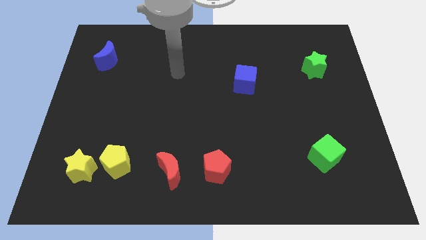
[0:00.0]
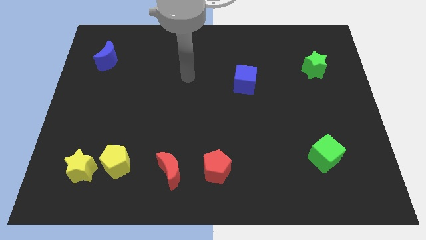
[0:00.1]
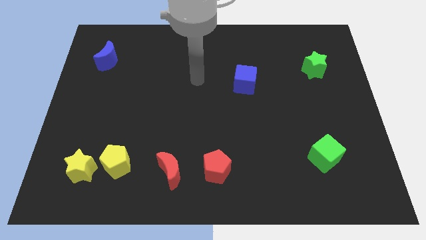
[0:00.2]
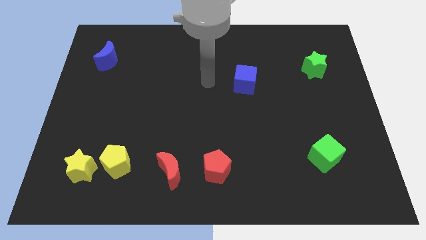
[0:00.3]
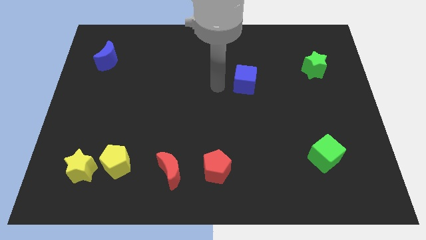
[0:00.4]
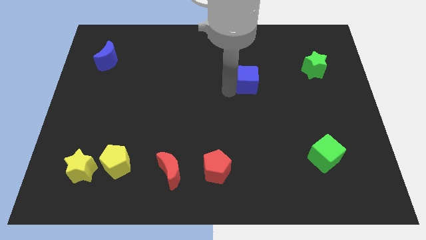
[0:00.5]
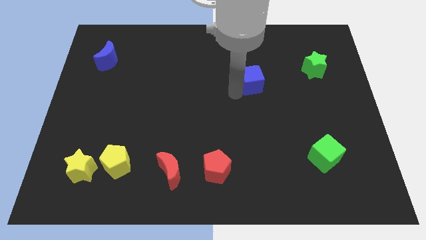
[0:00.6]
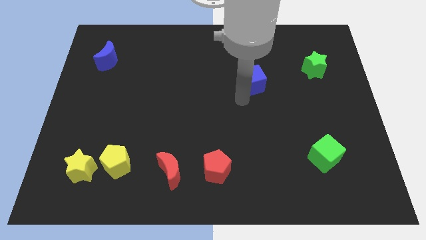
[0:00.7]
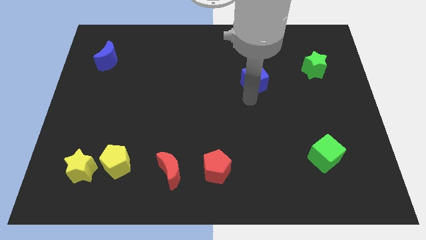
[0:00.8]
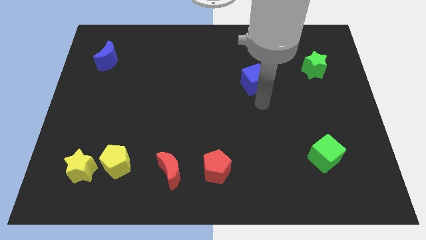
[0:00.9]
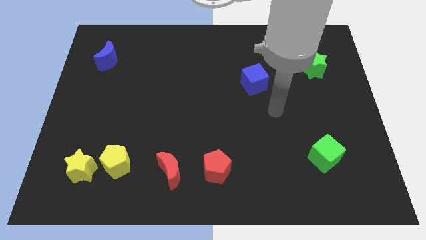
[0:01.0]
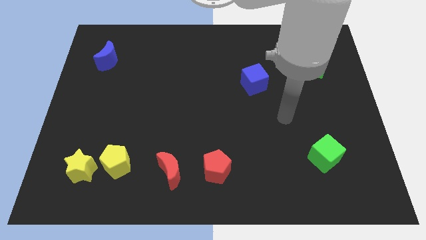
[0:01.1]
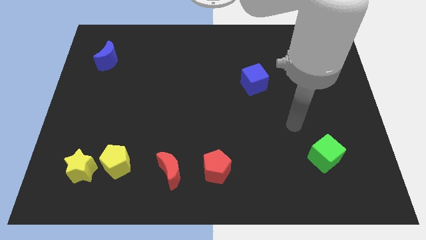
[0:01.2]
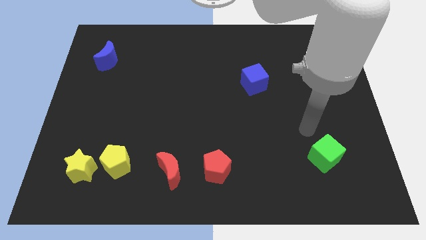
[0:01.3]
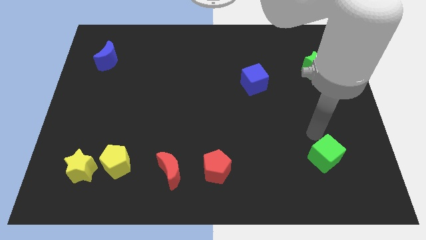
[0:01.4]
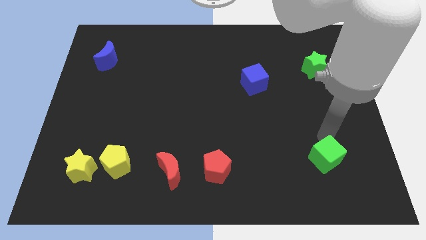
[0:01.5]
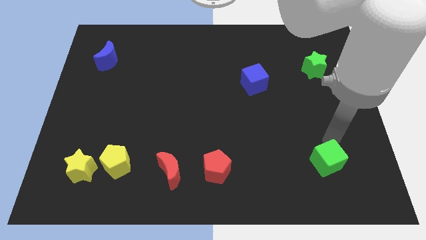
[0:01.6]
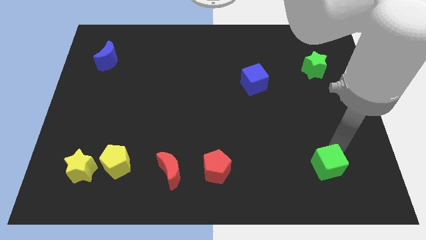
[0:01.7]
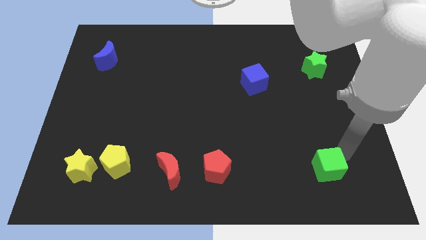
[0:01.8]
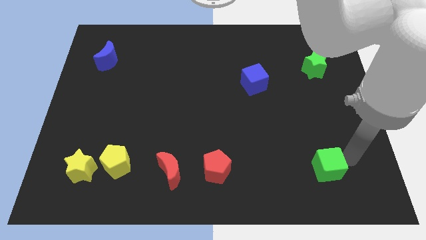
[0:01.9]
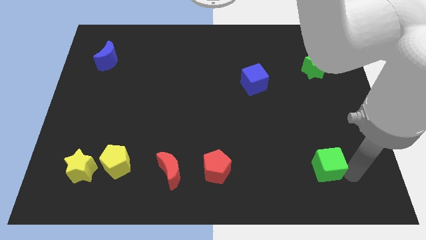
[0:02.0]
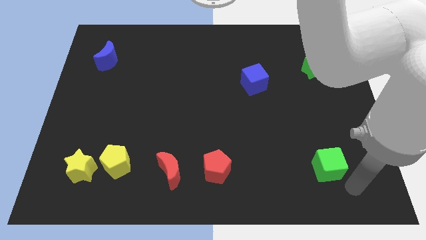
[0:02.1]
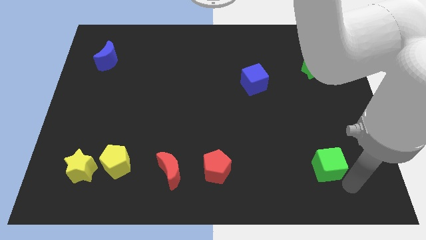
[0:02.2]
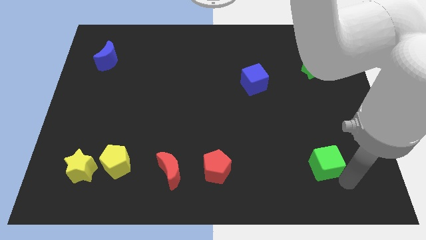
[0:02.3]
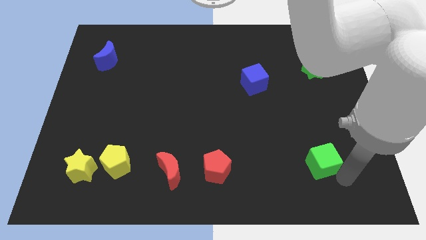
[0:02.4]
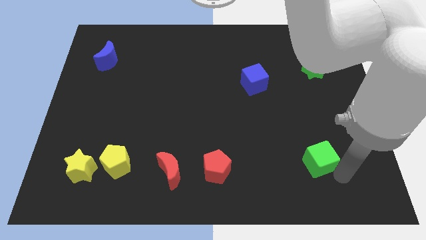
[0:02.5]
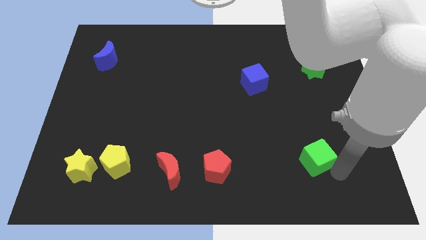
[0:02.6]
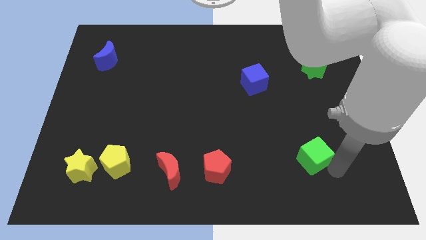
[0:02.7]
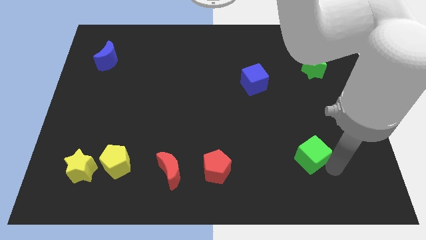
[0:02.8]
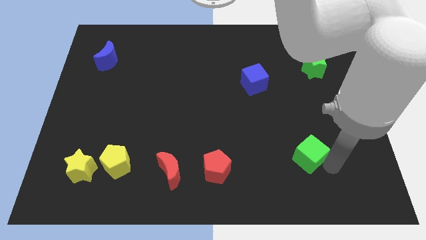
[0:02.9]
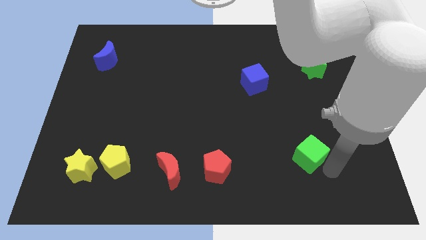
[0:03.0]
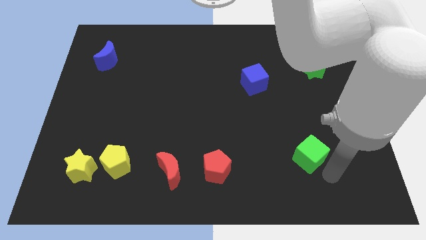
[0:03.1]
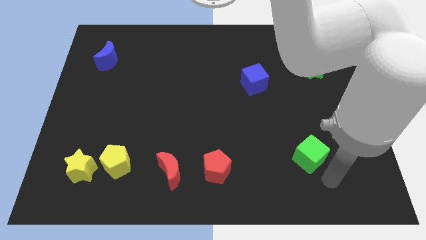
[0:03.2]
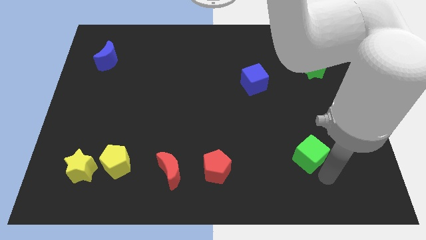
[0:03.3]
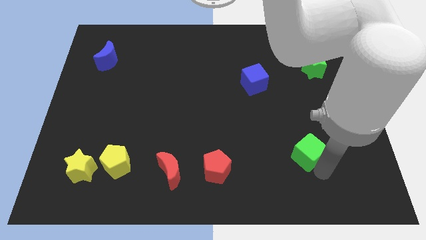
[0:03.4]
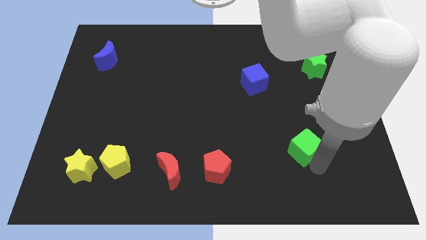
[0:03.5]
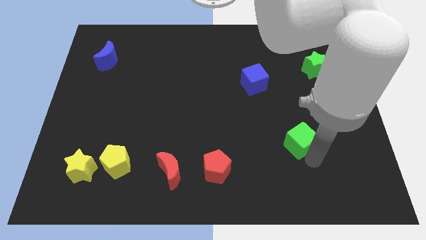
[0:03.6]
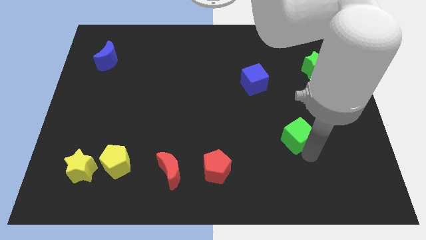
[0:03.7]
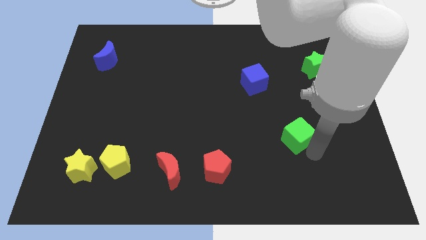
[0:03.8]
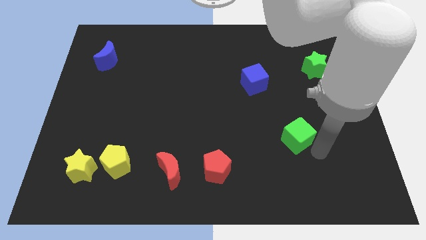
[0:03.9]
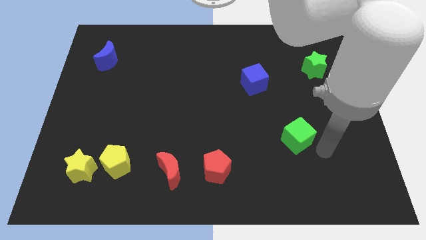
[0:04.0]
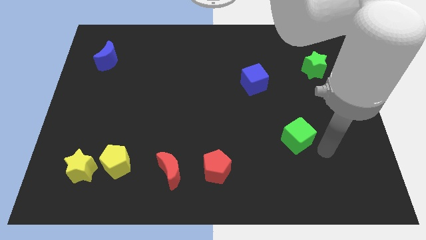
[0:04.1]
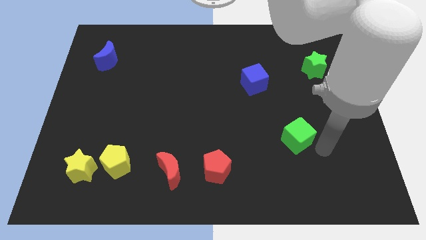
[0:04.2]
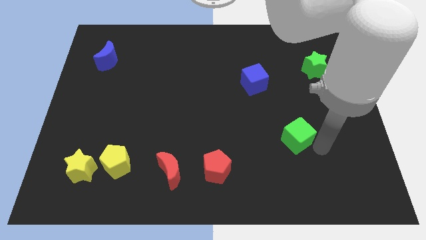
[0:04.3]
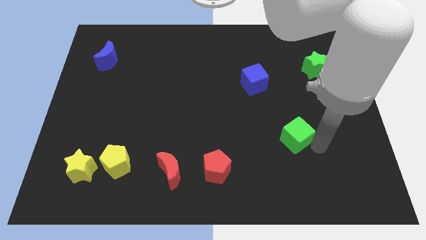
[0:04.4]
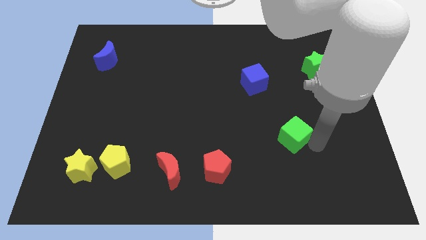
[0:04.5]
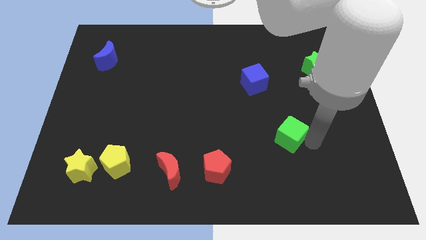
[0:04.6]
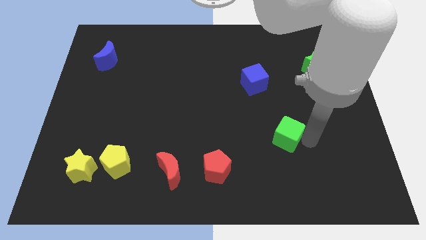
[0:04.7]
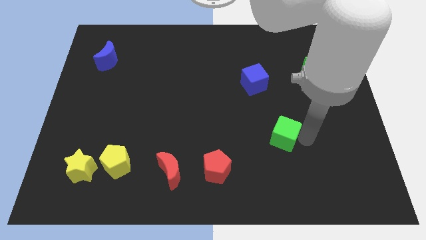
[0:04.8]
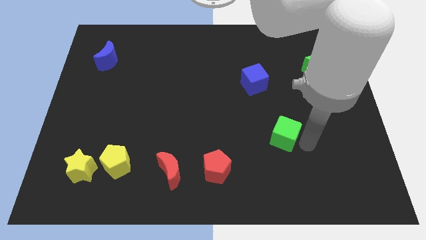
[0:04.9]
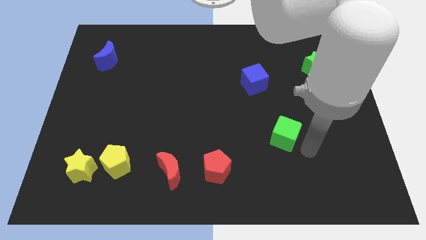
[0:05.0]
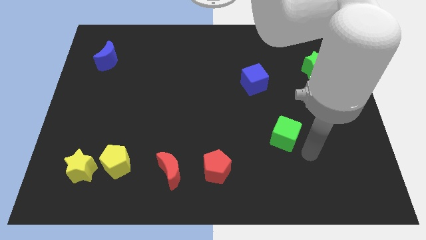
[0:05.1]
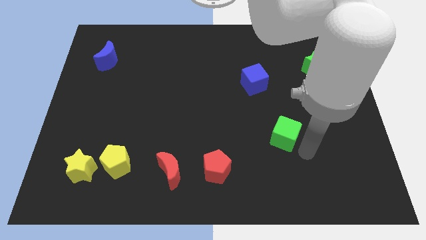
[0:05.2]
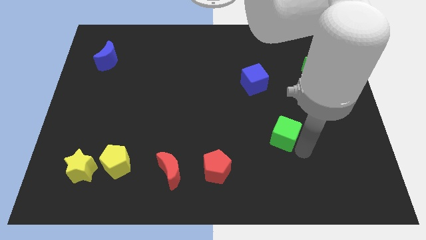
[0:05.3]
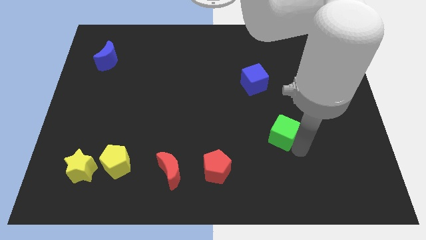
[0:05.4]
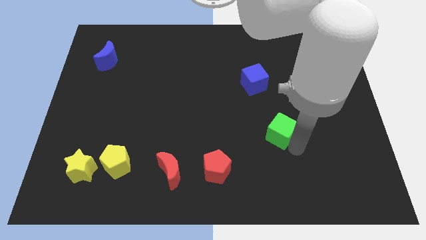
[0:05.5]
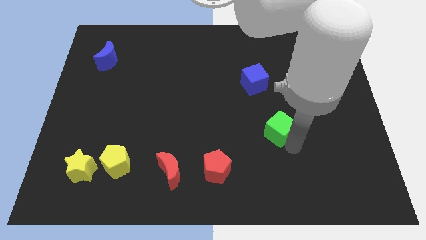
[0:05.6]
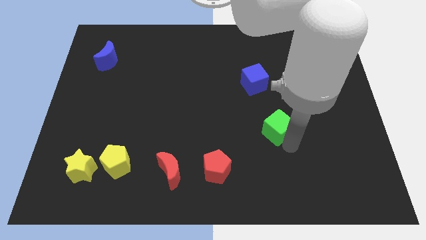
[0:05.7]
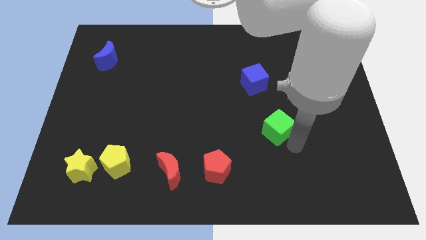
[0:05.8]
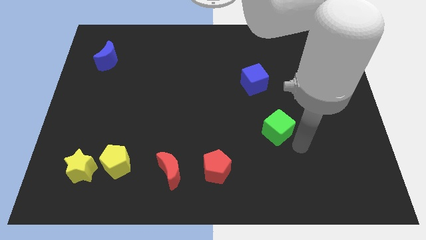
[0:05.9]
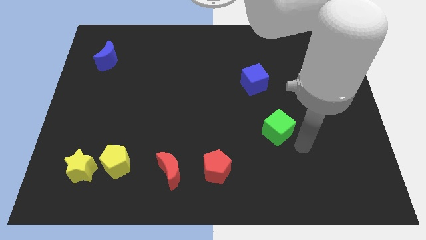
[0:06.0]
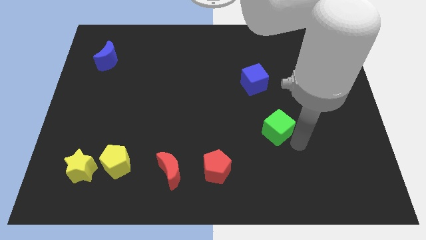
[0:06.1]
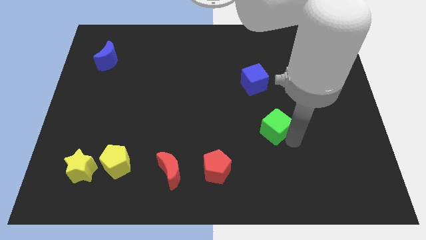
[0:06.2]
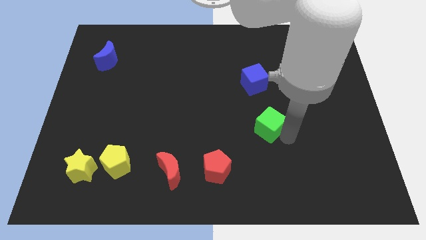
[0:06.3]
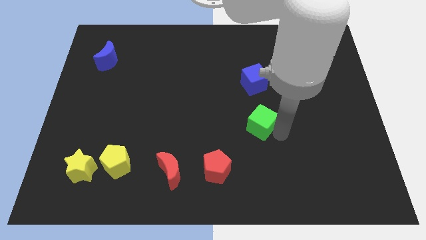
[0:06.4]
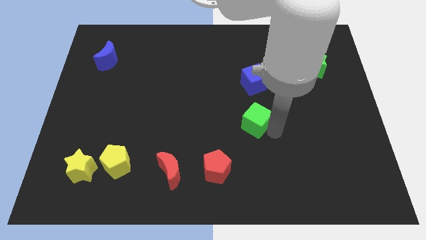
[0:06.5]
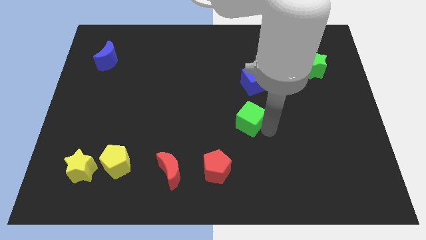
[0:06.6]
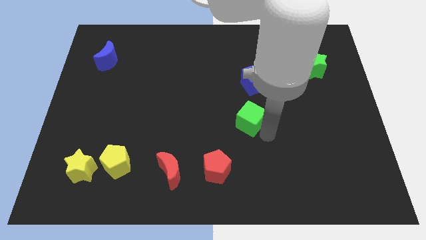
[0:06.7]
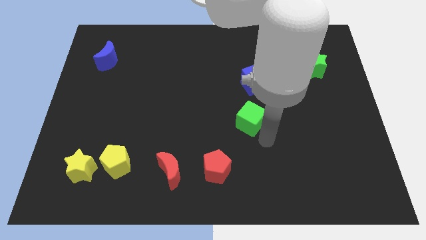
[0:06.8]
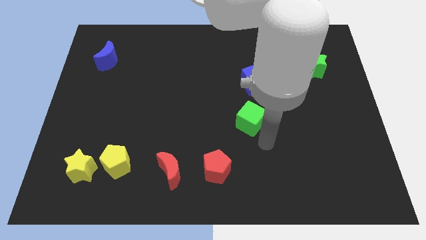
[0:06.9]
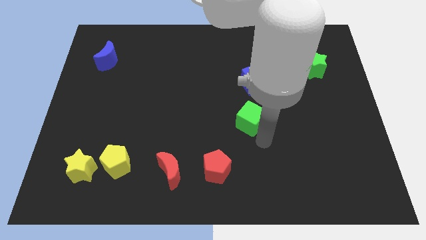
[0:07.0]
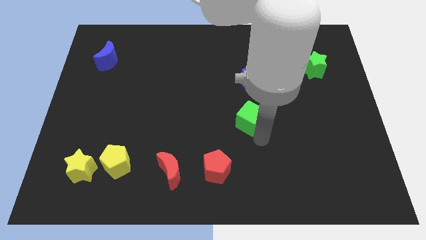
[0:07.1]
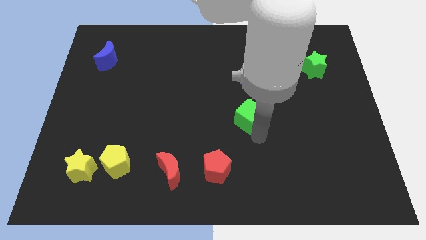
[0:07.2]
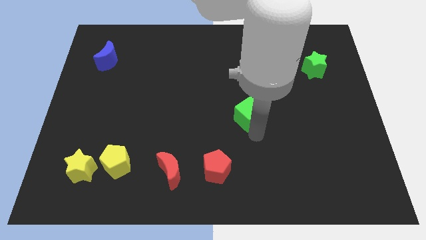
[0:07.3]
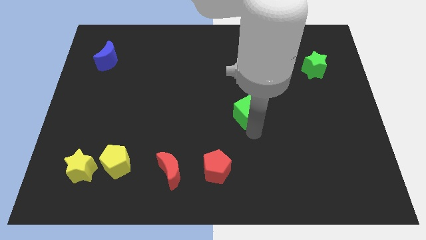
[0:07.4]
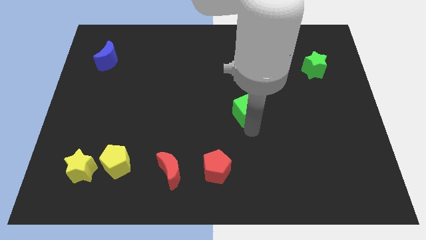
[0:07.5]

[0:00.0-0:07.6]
move the green cube to the bottom left side of the blue cube

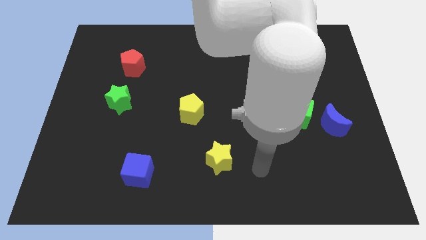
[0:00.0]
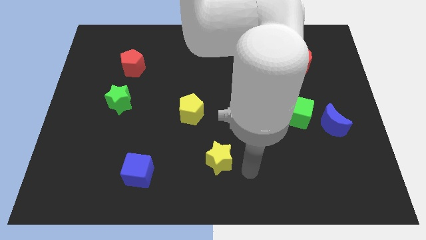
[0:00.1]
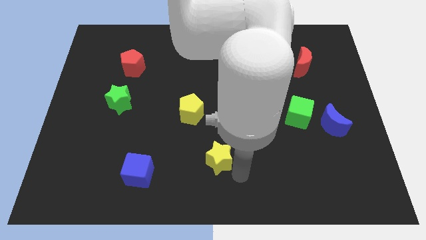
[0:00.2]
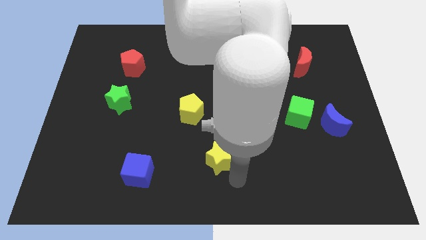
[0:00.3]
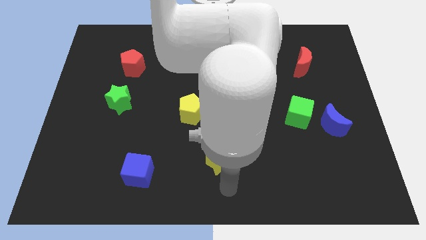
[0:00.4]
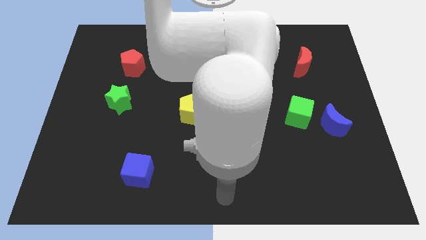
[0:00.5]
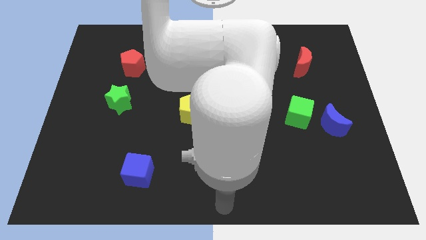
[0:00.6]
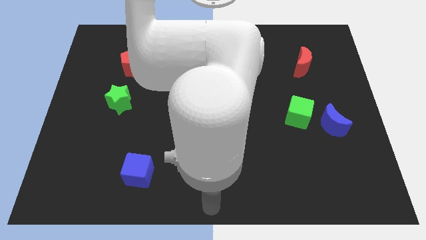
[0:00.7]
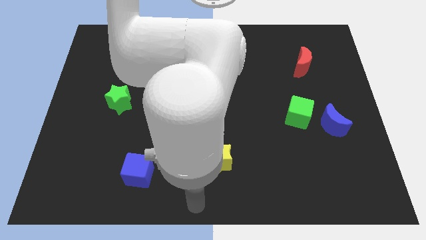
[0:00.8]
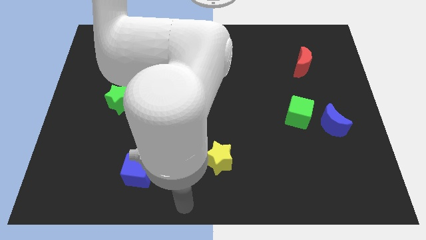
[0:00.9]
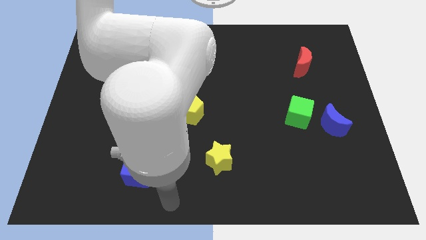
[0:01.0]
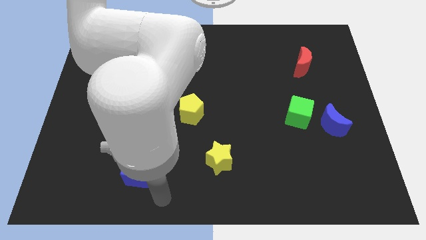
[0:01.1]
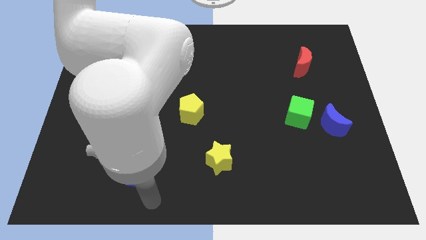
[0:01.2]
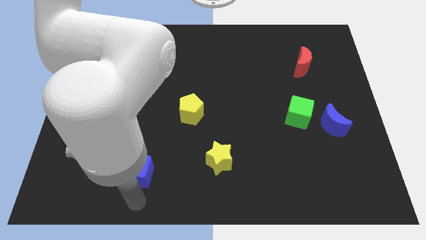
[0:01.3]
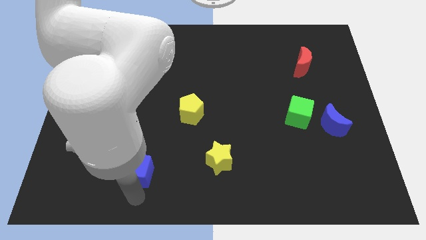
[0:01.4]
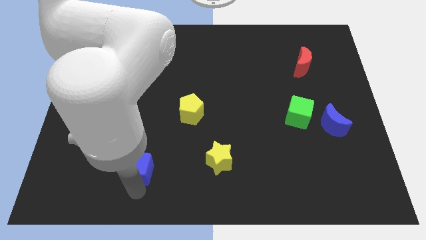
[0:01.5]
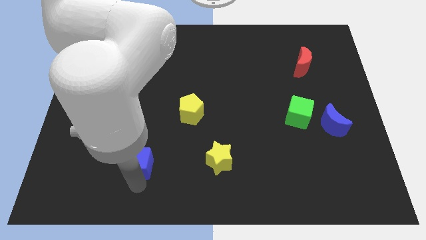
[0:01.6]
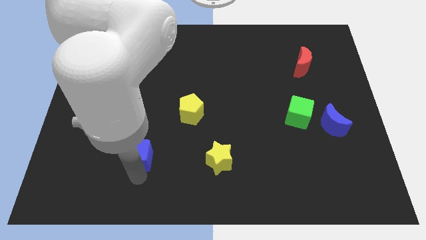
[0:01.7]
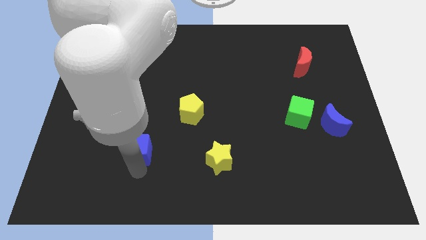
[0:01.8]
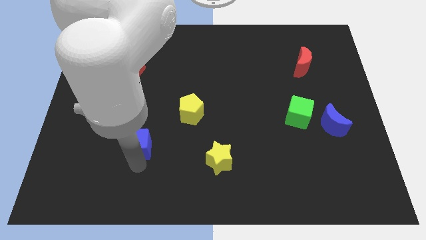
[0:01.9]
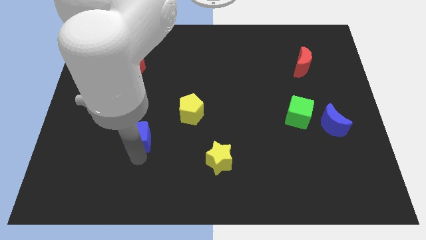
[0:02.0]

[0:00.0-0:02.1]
slide the blue cube diagonally down and to the right of the green star
